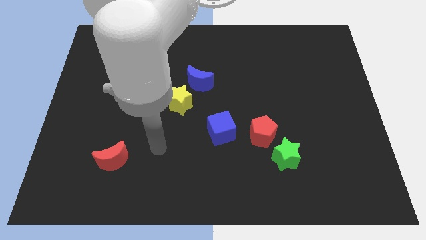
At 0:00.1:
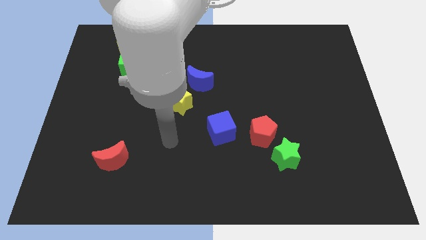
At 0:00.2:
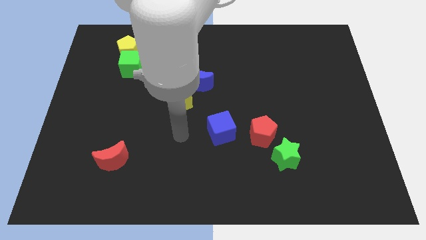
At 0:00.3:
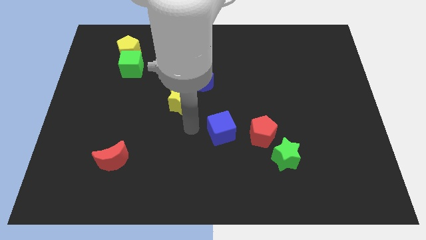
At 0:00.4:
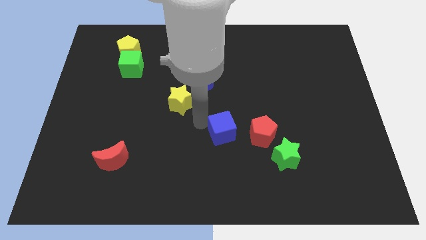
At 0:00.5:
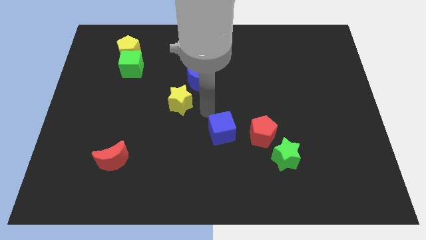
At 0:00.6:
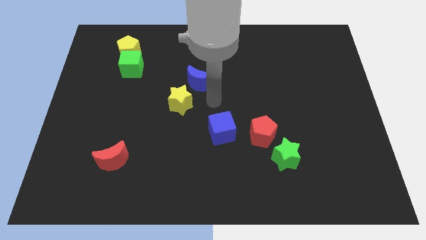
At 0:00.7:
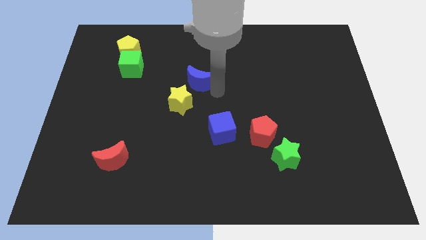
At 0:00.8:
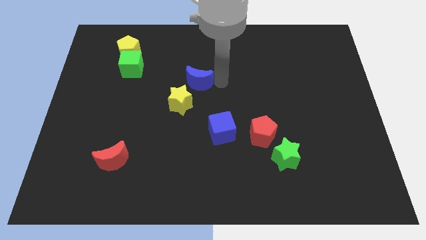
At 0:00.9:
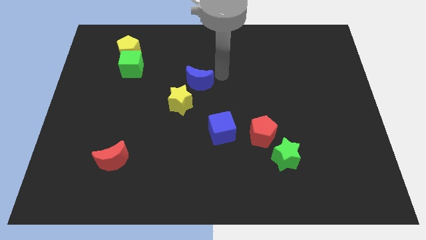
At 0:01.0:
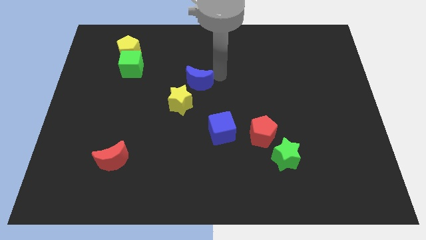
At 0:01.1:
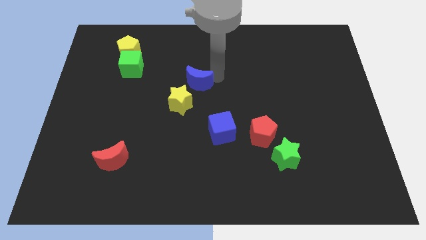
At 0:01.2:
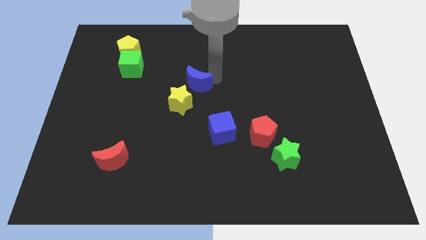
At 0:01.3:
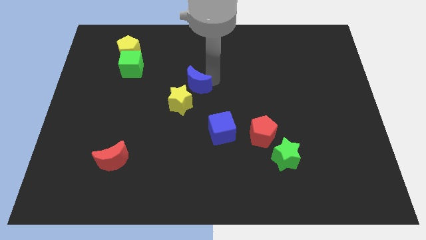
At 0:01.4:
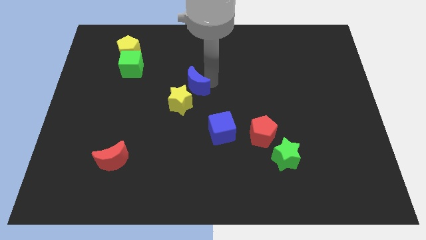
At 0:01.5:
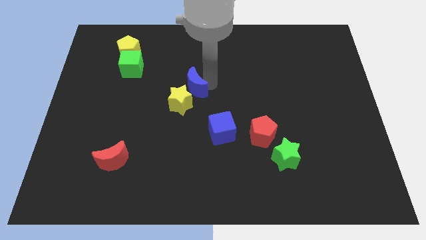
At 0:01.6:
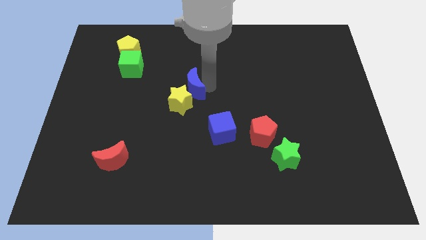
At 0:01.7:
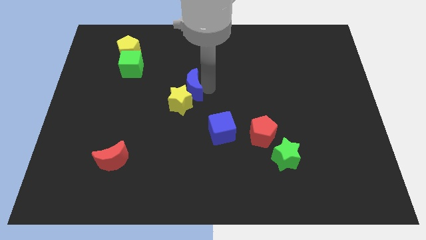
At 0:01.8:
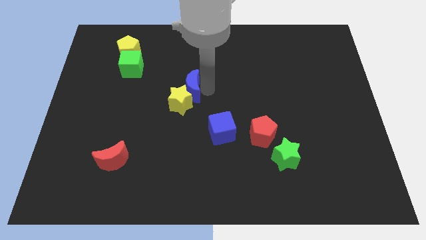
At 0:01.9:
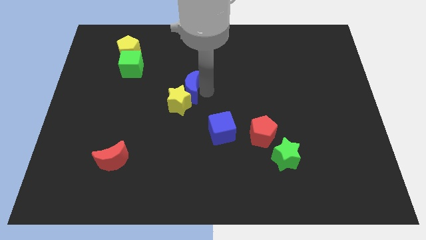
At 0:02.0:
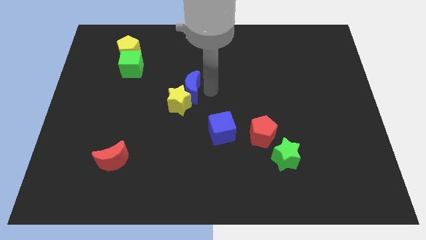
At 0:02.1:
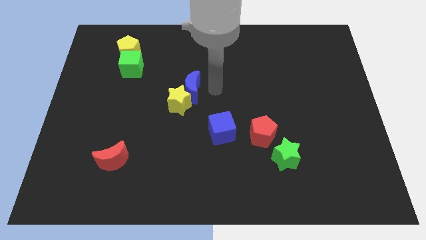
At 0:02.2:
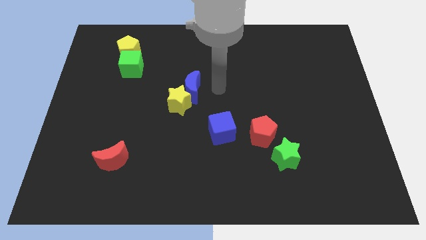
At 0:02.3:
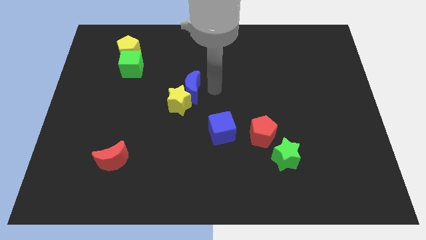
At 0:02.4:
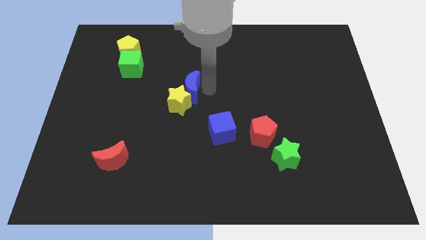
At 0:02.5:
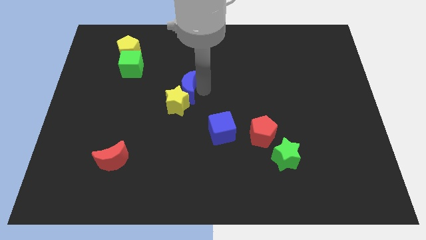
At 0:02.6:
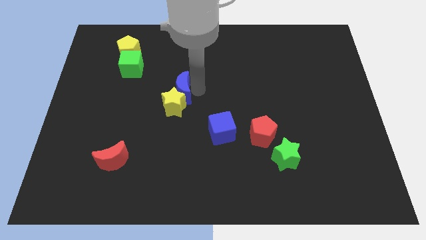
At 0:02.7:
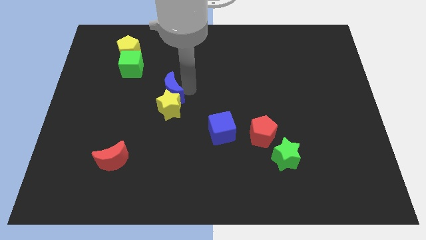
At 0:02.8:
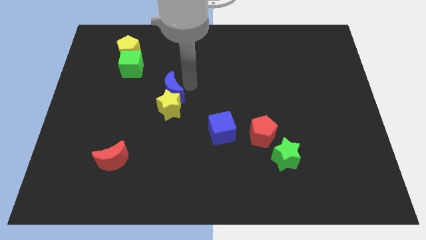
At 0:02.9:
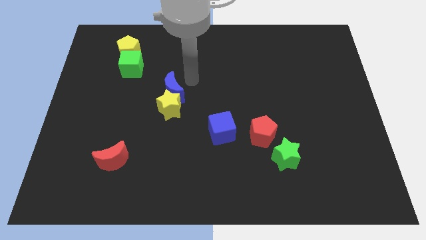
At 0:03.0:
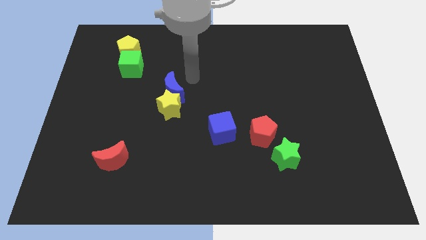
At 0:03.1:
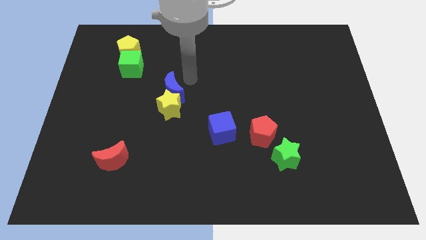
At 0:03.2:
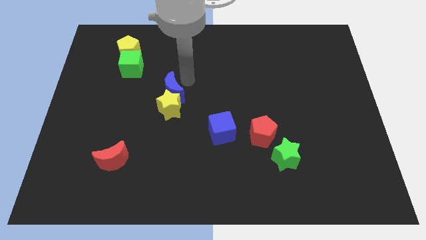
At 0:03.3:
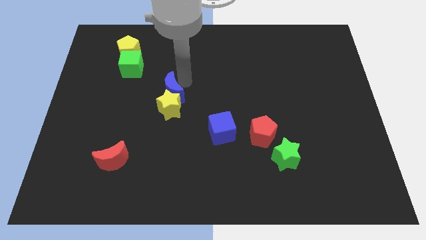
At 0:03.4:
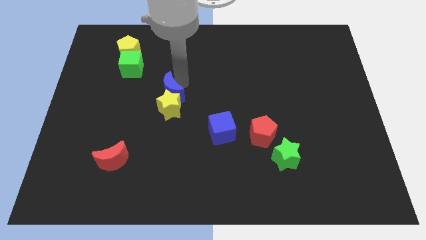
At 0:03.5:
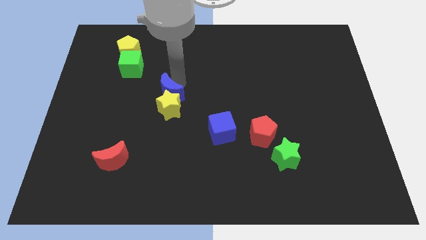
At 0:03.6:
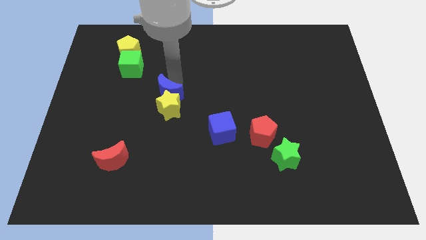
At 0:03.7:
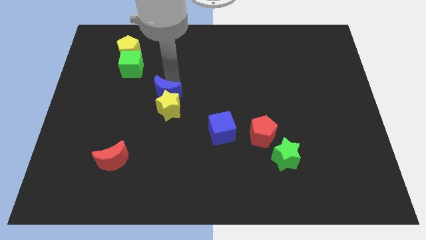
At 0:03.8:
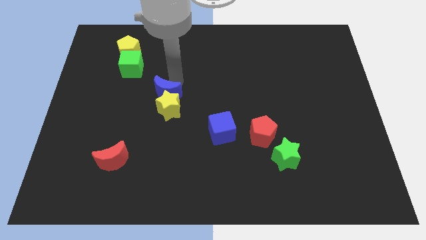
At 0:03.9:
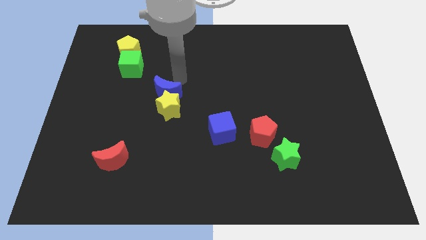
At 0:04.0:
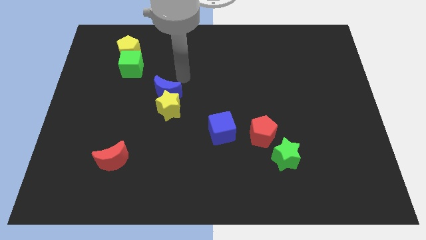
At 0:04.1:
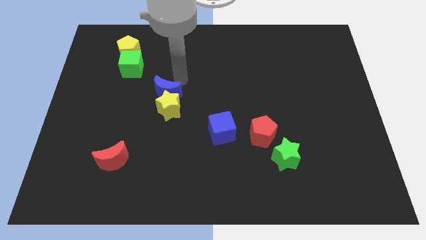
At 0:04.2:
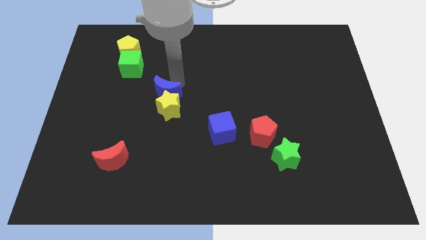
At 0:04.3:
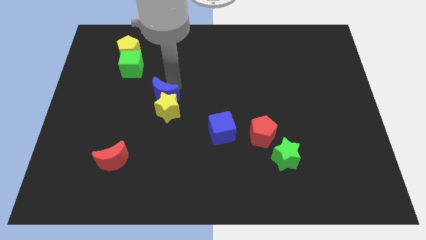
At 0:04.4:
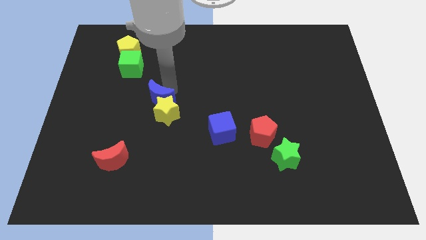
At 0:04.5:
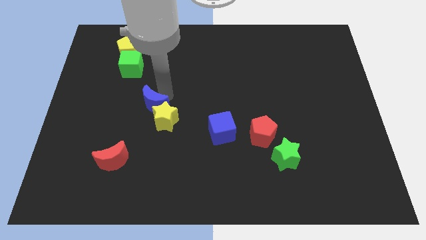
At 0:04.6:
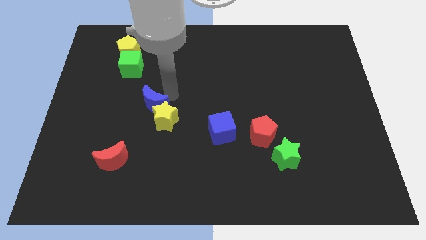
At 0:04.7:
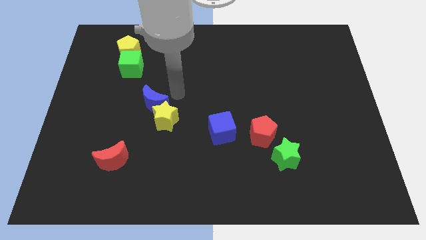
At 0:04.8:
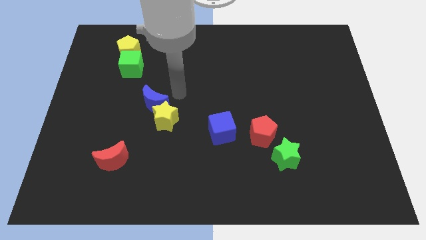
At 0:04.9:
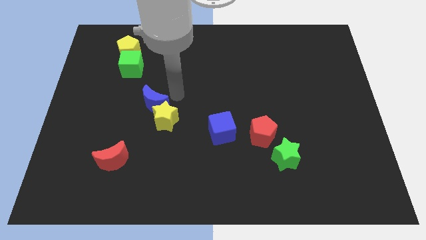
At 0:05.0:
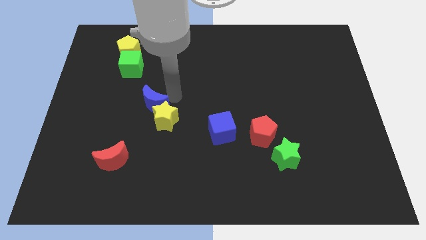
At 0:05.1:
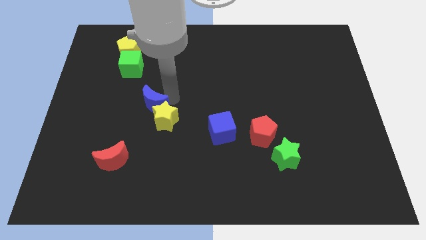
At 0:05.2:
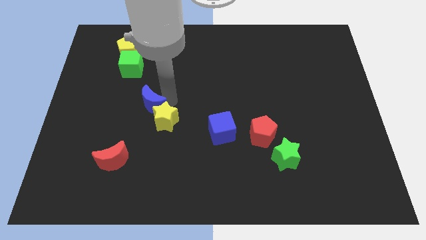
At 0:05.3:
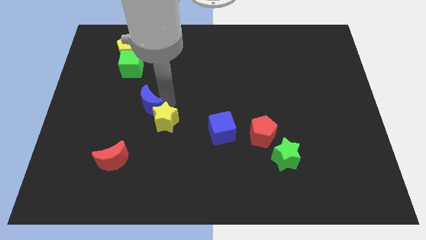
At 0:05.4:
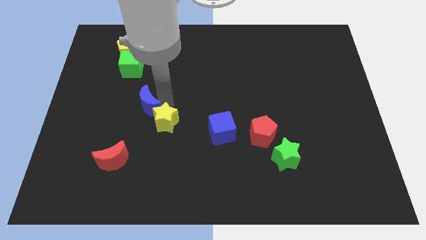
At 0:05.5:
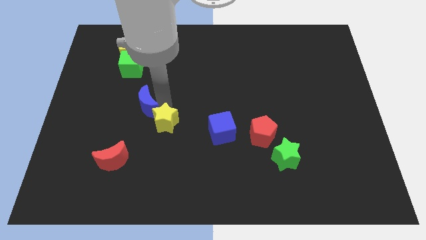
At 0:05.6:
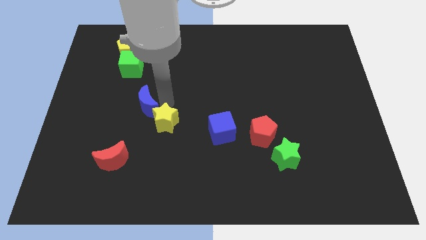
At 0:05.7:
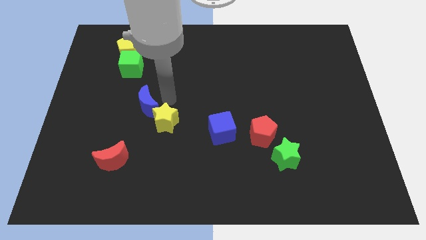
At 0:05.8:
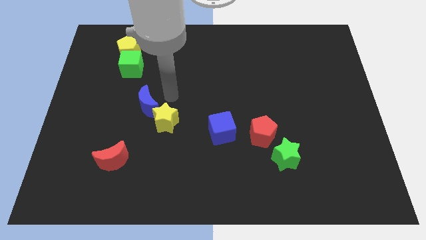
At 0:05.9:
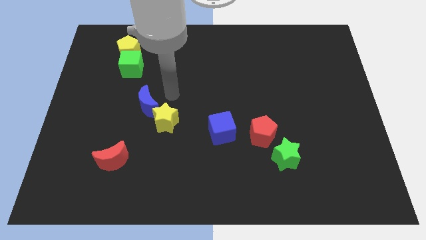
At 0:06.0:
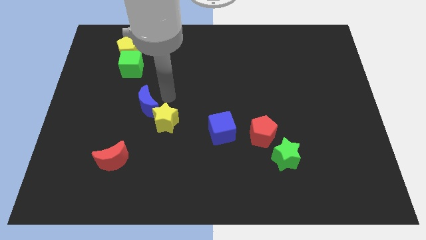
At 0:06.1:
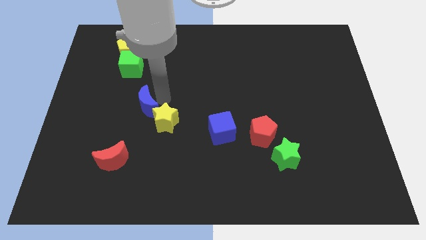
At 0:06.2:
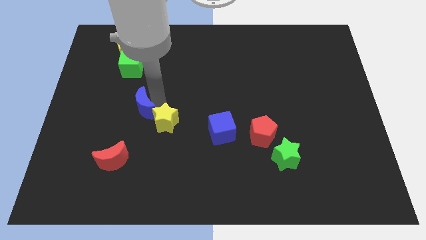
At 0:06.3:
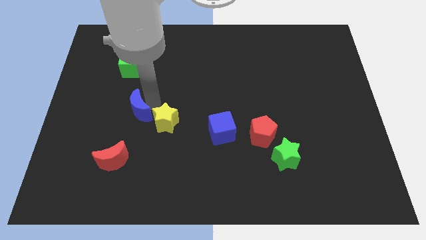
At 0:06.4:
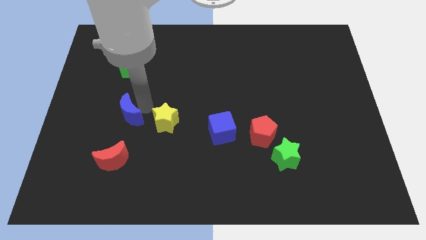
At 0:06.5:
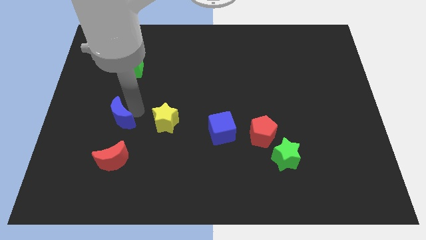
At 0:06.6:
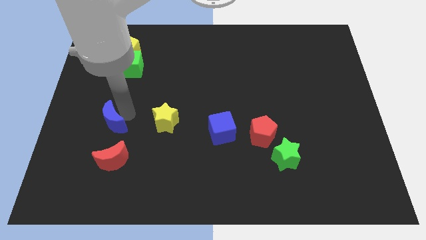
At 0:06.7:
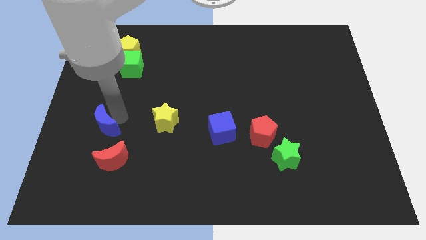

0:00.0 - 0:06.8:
move the blue moon to the top left of the red moon

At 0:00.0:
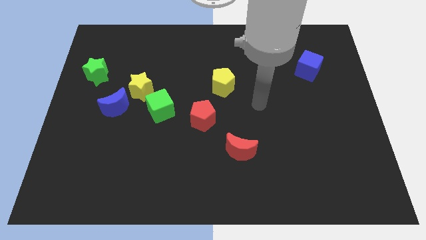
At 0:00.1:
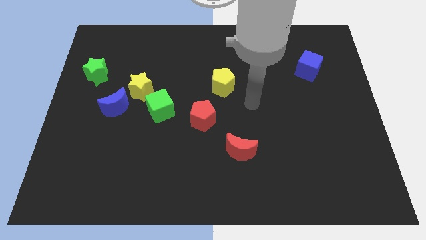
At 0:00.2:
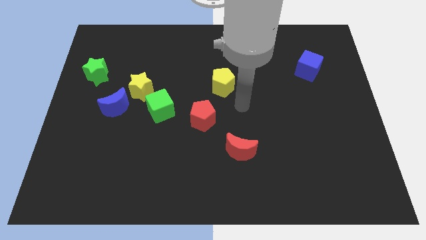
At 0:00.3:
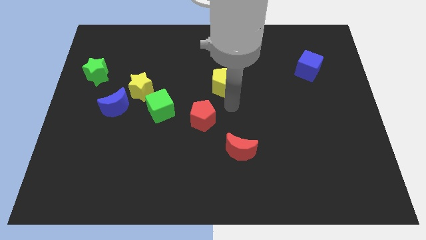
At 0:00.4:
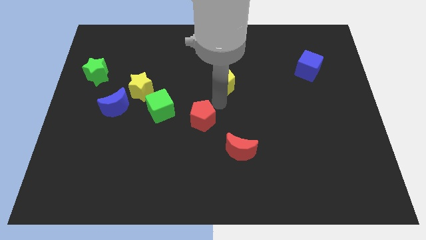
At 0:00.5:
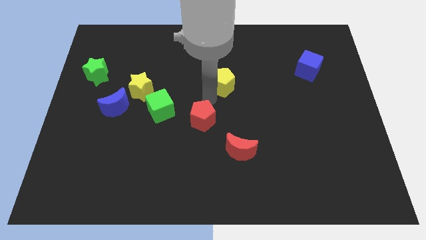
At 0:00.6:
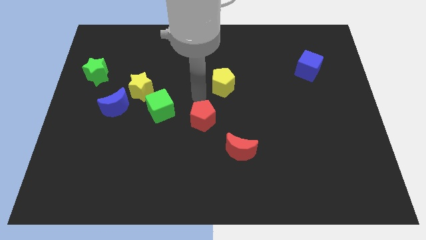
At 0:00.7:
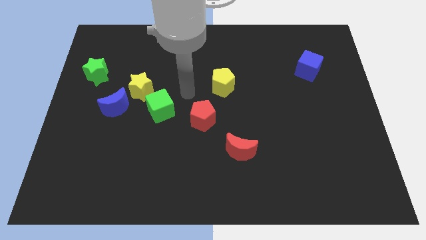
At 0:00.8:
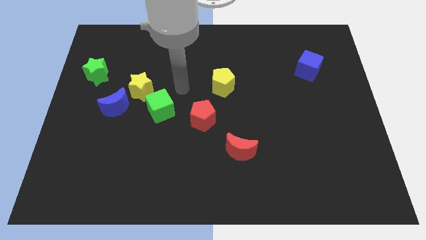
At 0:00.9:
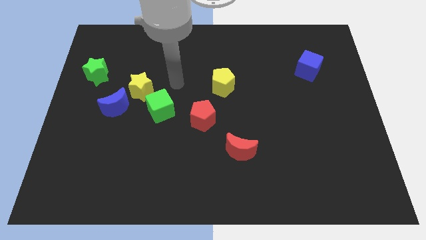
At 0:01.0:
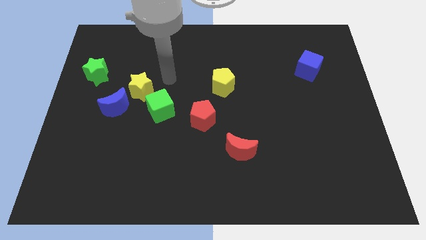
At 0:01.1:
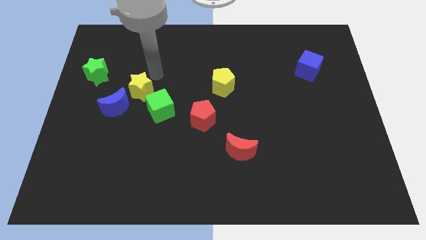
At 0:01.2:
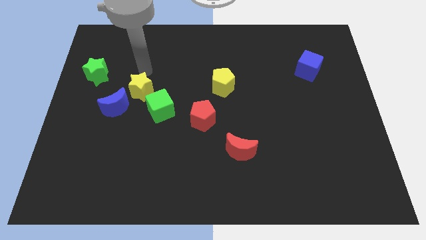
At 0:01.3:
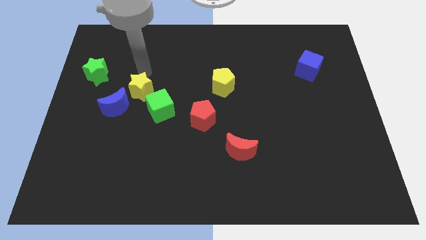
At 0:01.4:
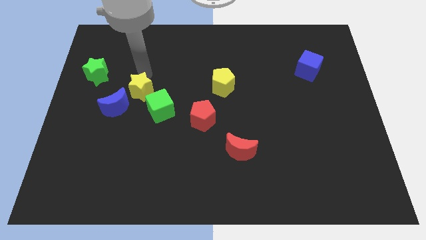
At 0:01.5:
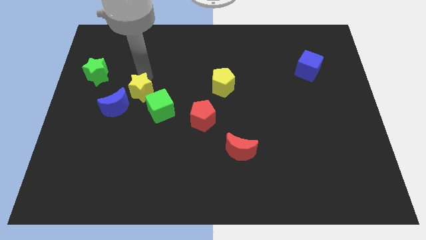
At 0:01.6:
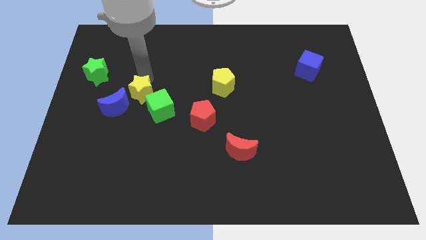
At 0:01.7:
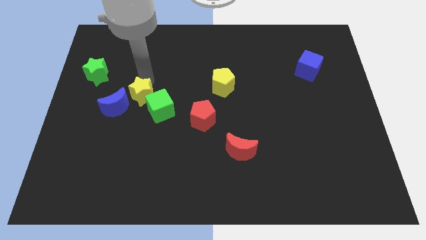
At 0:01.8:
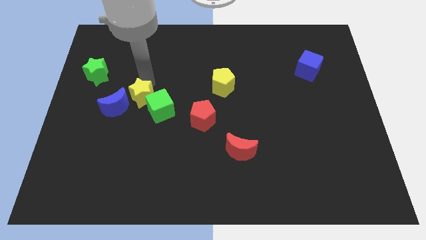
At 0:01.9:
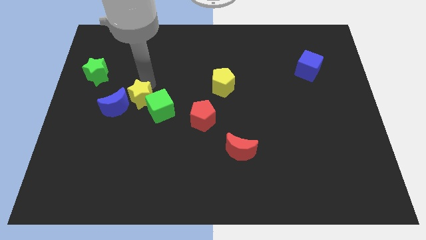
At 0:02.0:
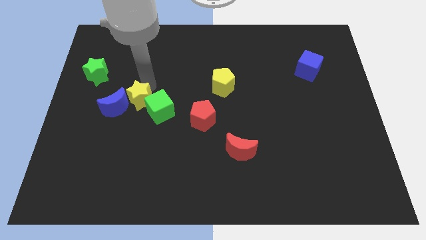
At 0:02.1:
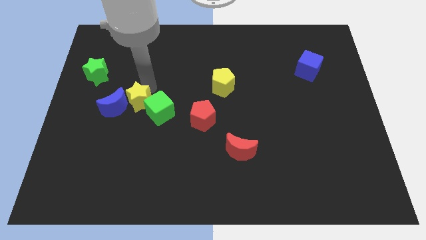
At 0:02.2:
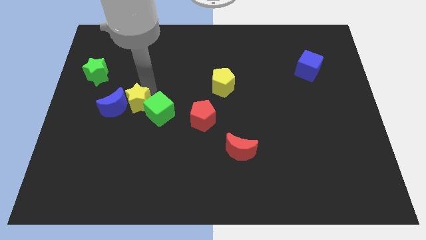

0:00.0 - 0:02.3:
move the yellow star diagonally down and to the right of the blue moon
